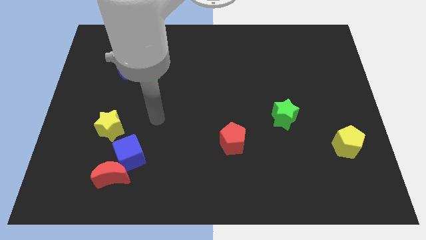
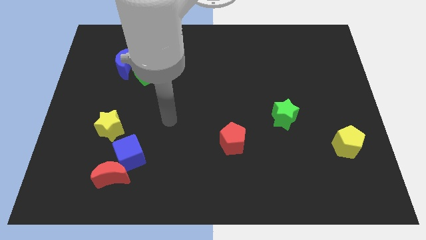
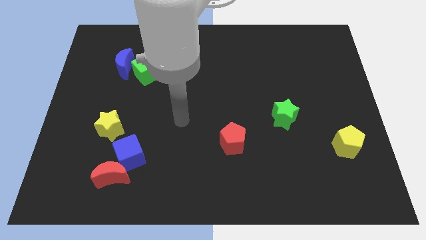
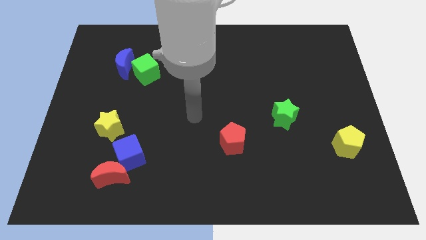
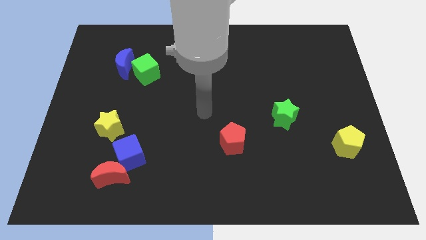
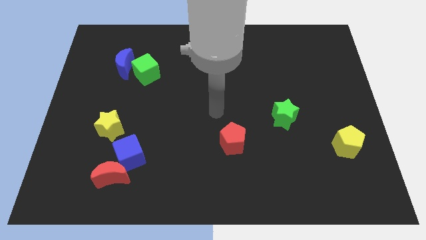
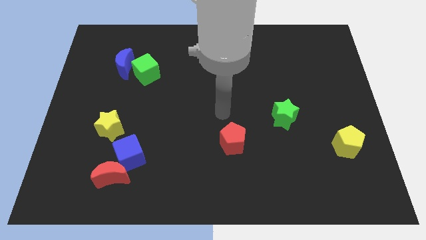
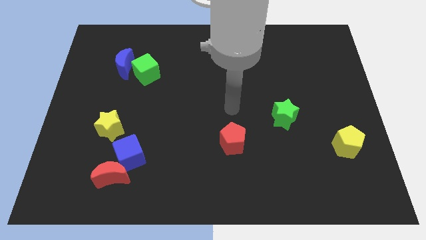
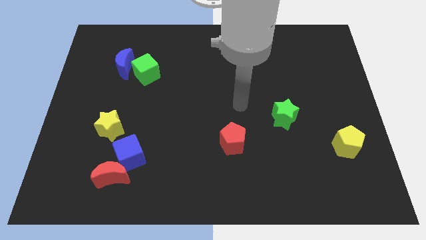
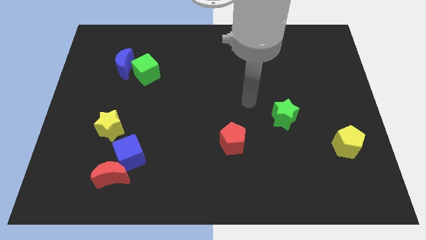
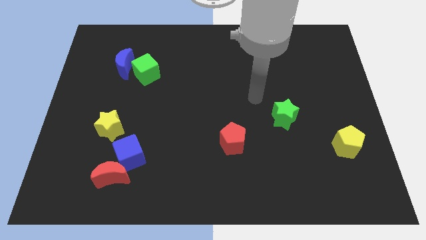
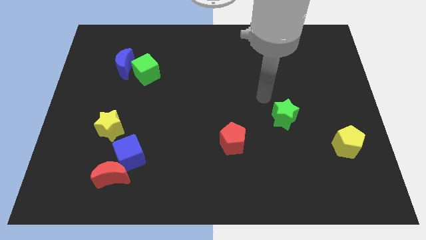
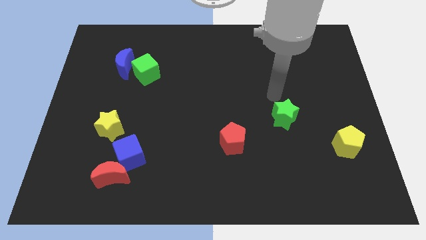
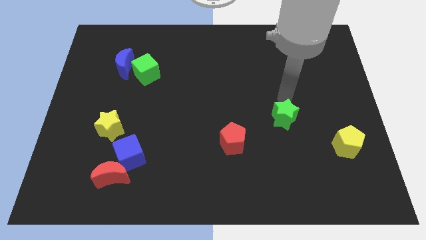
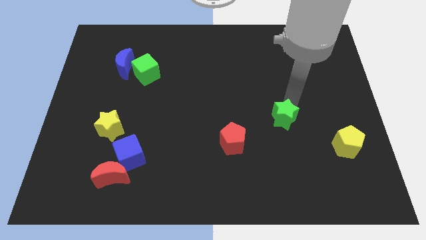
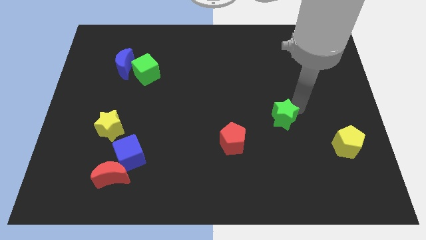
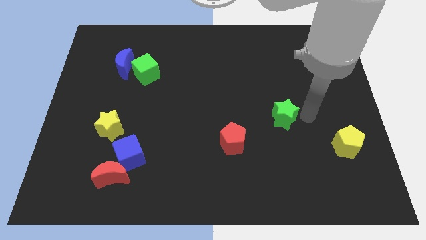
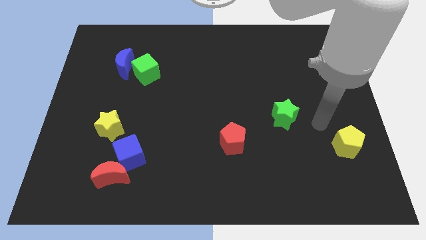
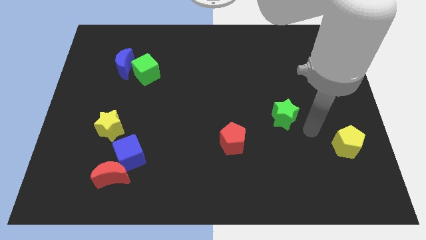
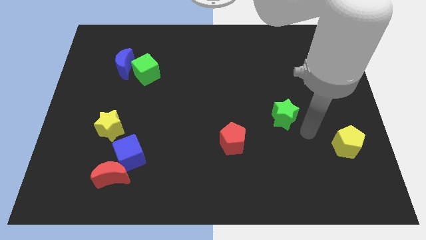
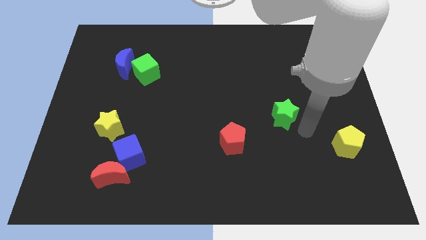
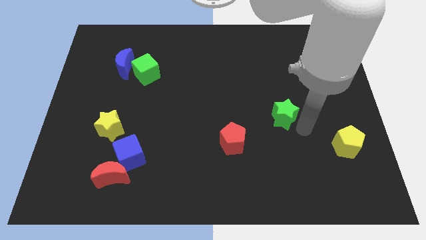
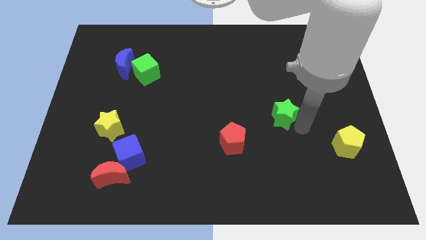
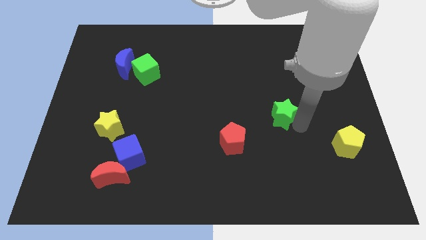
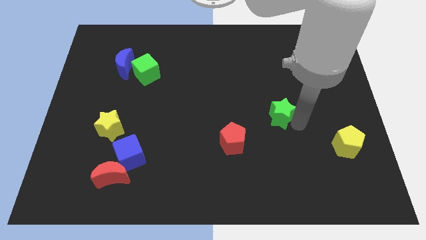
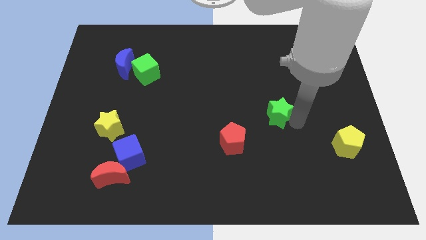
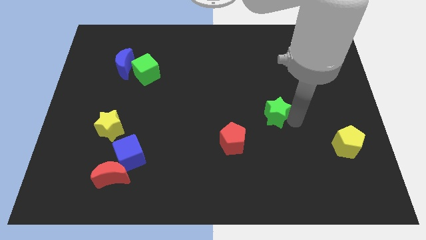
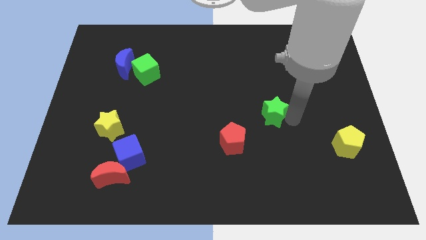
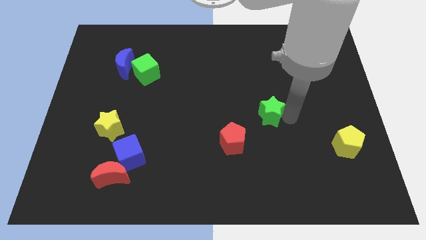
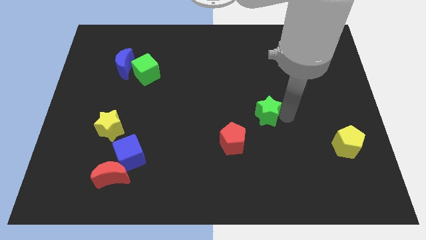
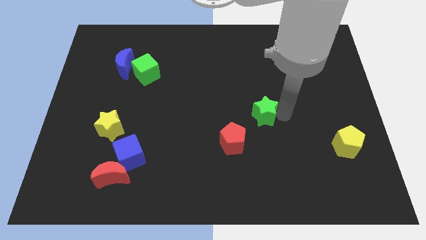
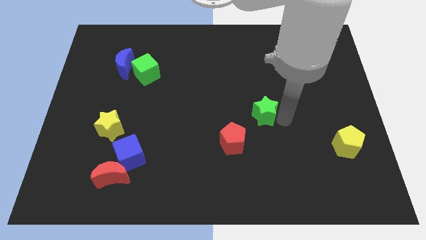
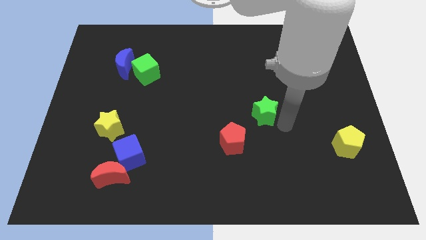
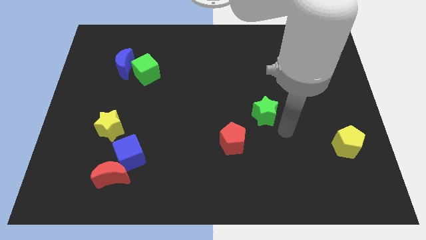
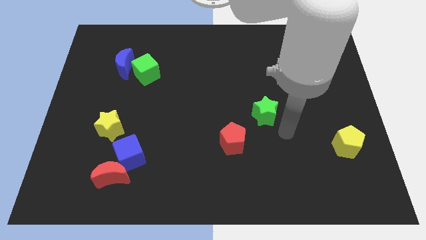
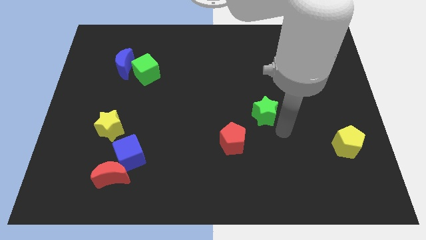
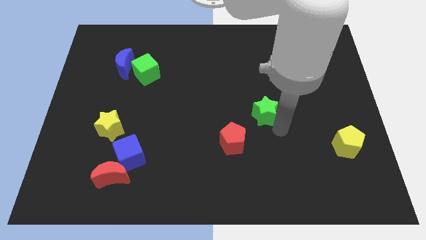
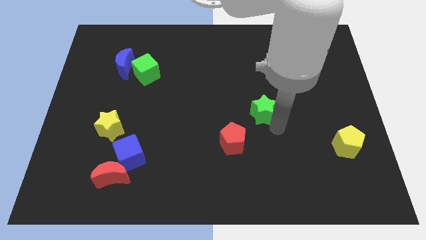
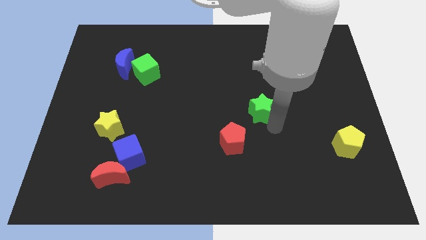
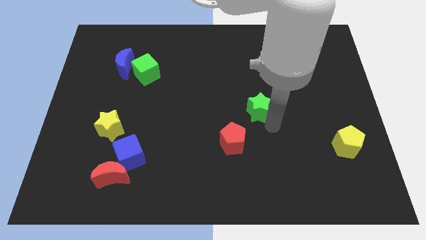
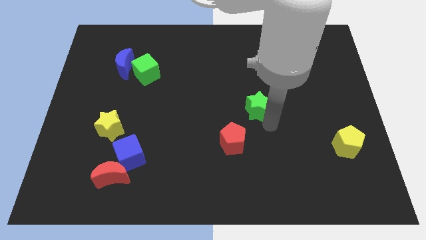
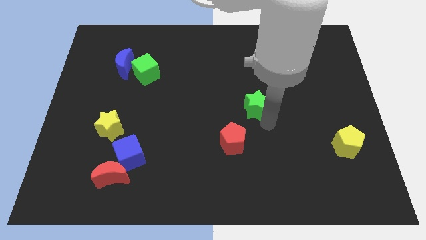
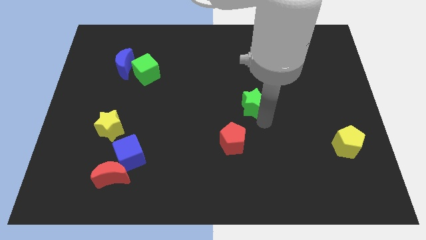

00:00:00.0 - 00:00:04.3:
slide the green star upwards and left a little bit

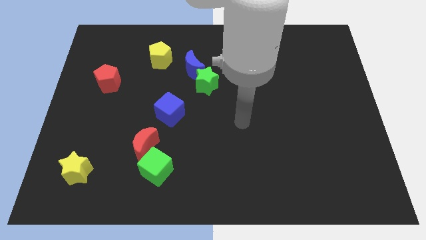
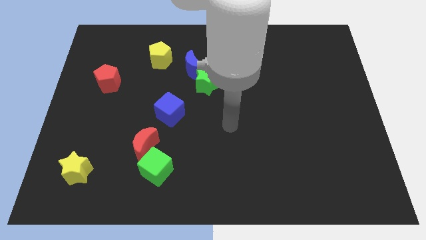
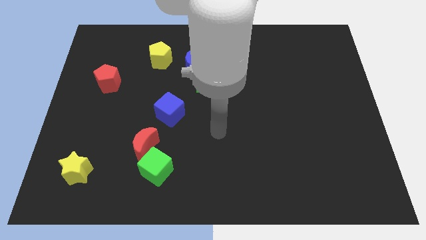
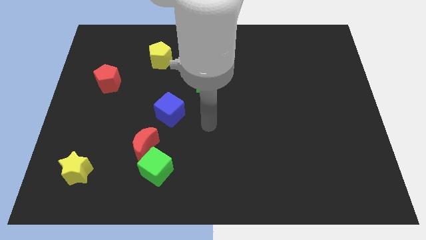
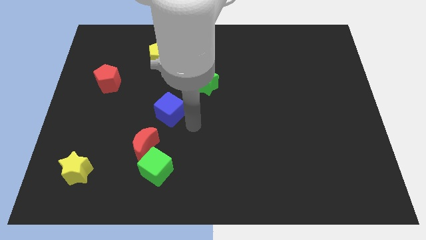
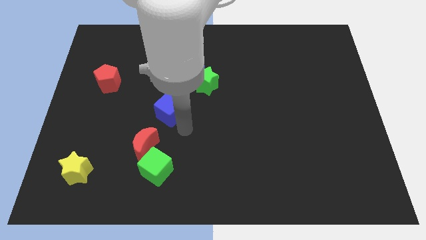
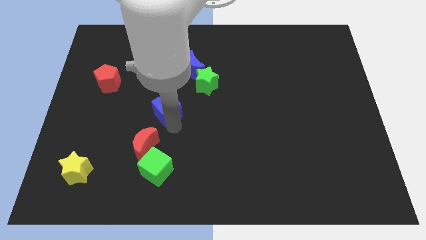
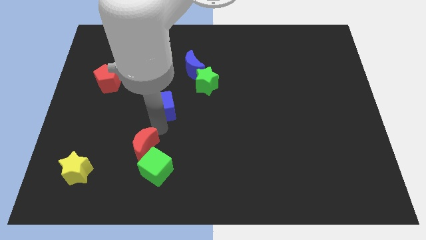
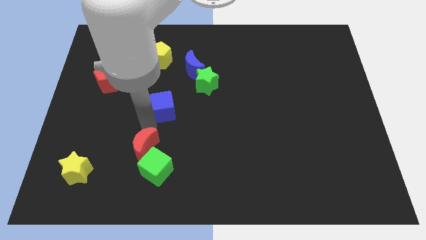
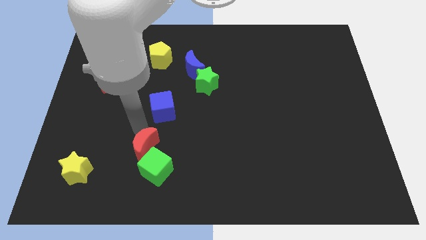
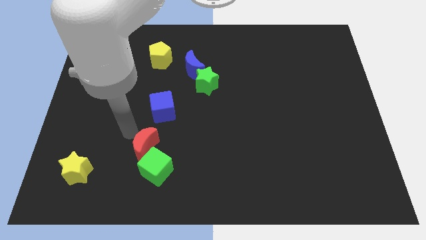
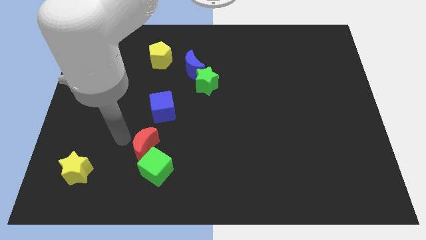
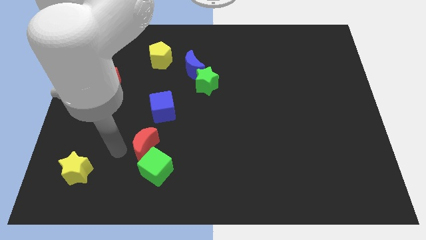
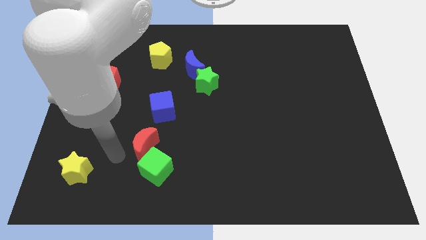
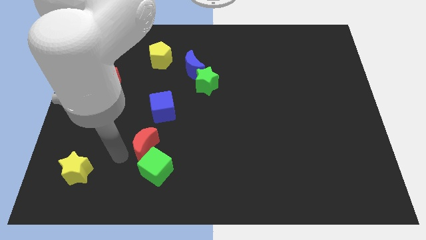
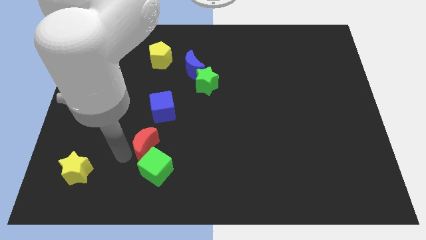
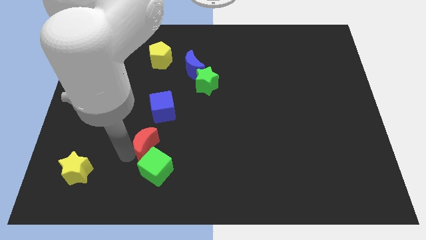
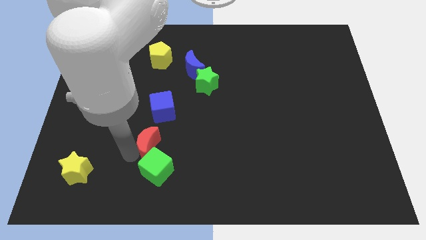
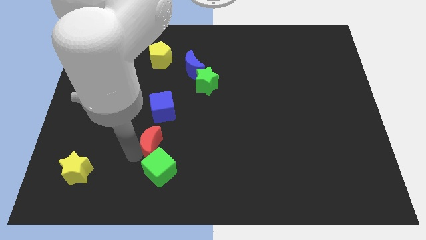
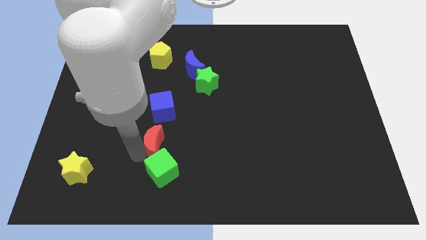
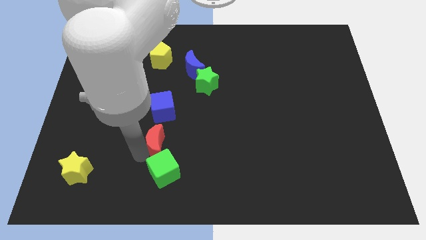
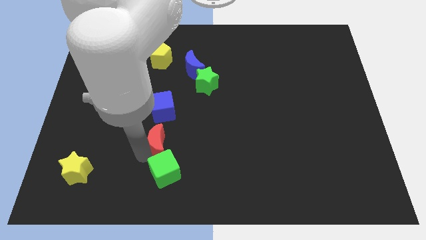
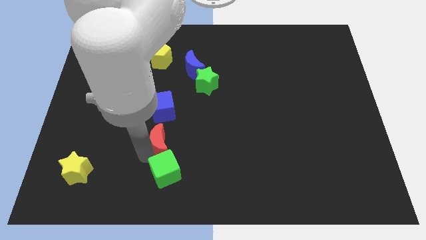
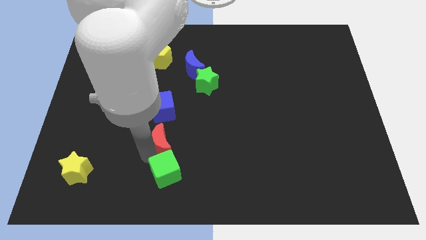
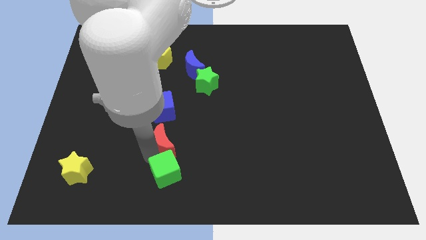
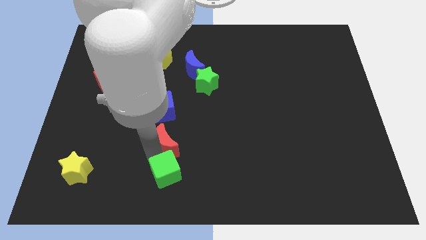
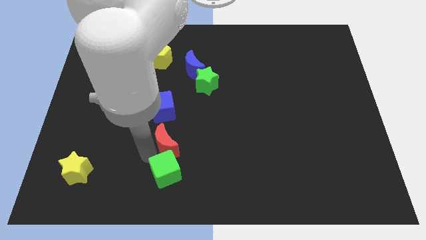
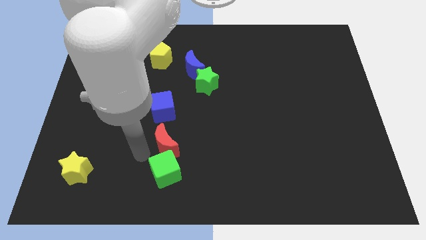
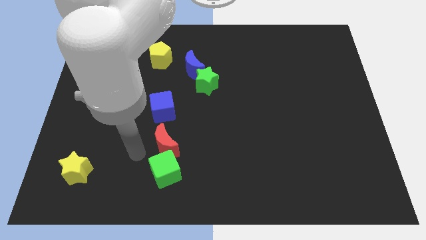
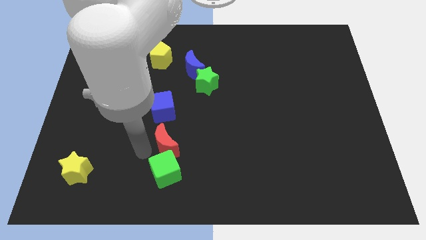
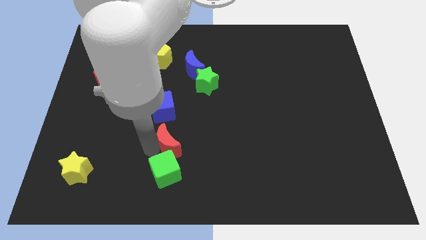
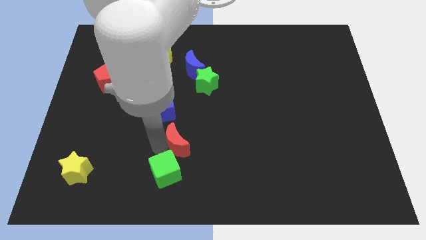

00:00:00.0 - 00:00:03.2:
move the red moon a little to the right

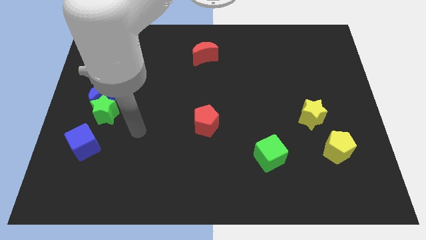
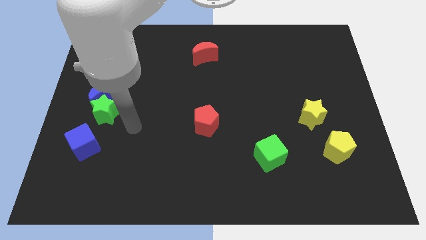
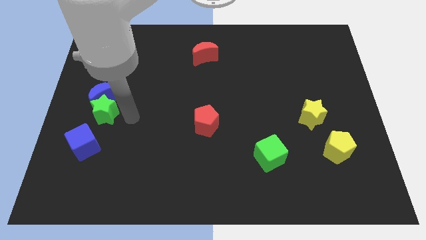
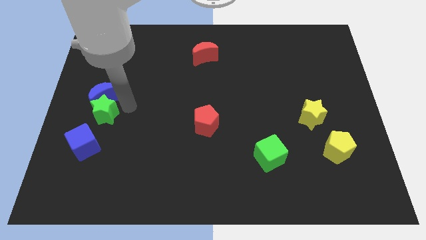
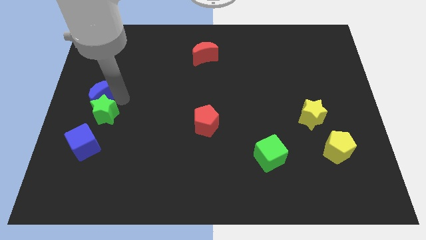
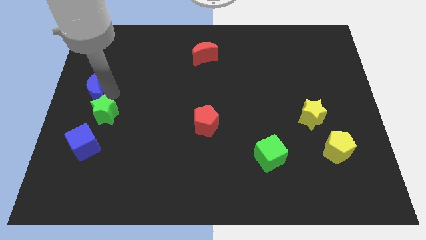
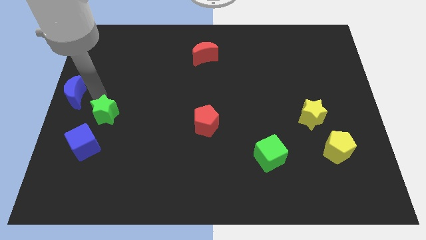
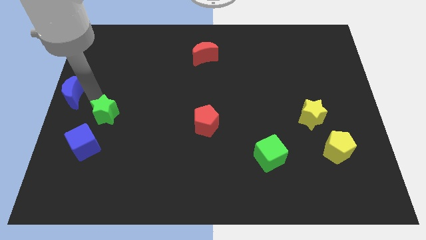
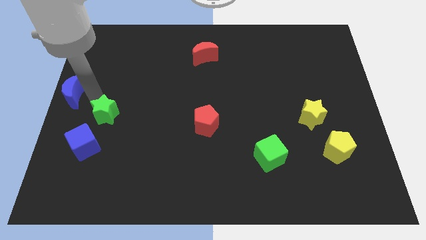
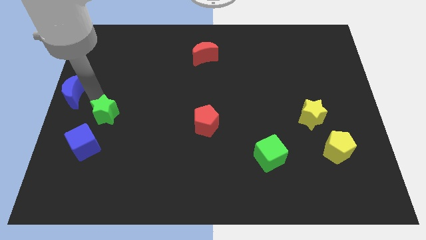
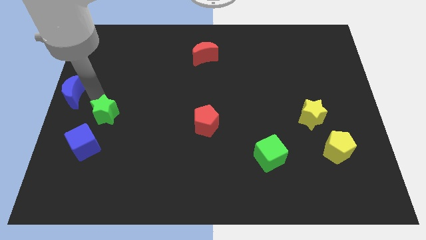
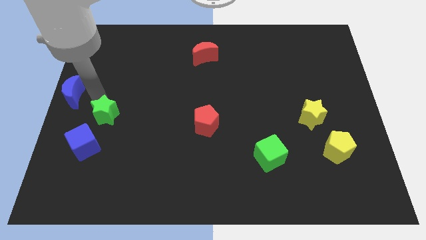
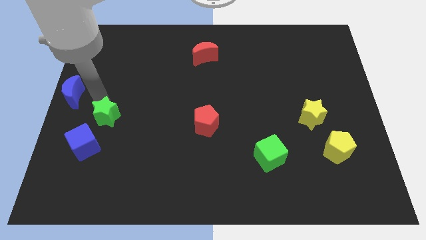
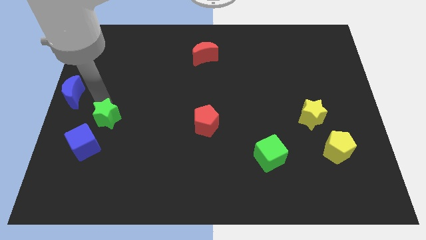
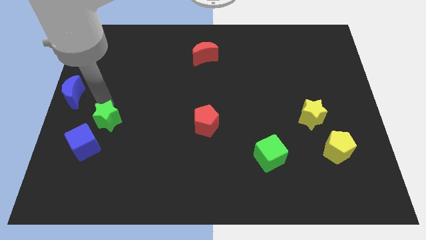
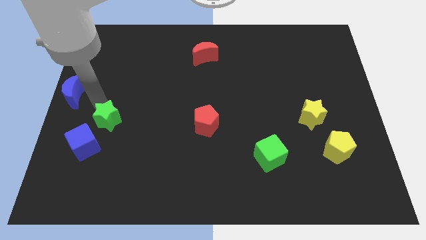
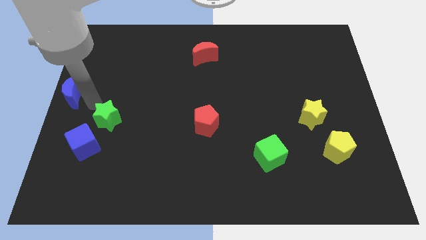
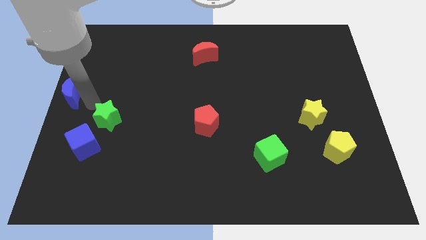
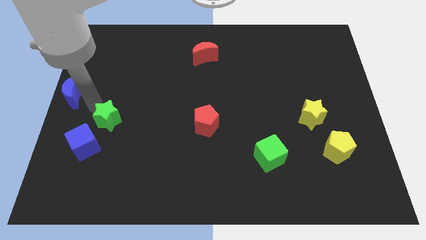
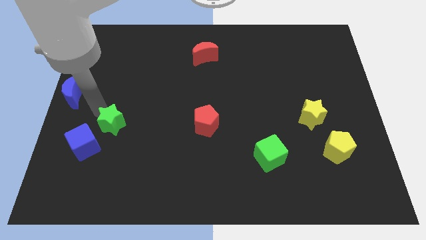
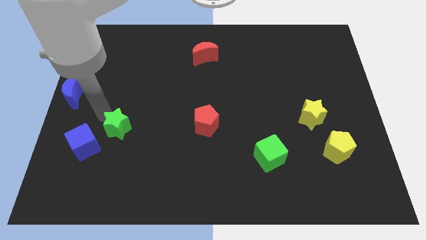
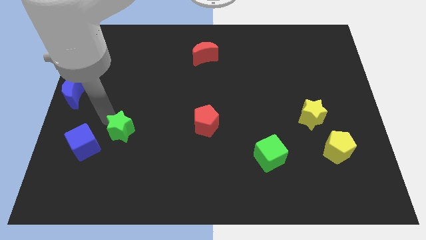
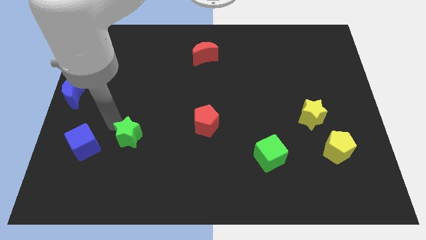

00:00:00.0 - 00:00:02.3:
slightly push the green star down and then right
